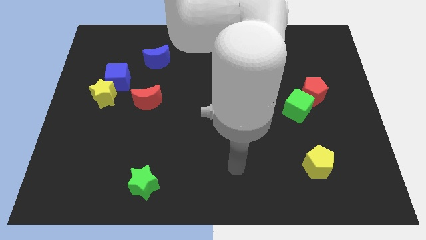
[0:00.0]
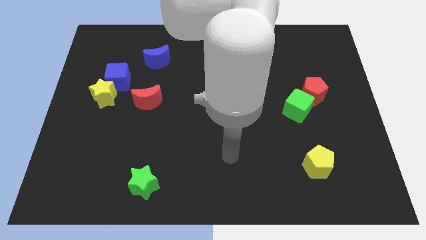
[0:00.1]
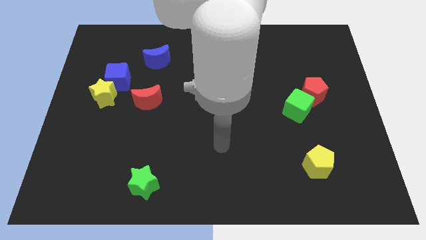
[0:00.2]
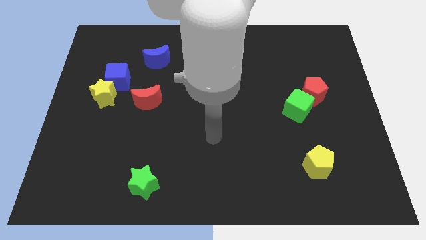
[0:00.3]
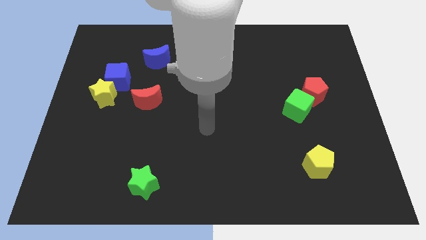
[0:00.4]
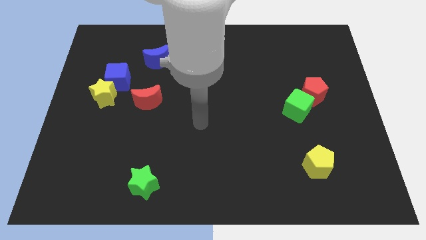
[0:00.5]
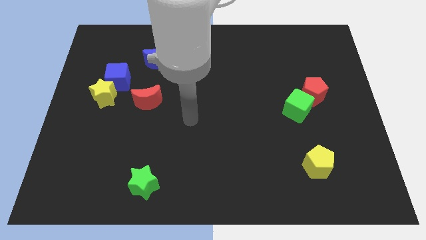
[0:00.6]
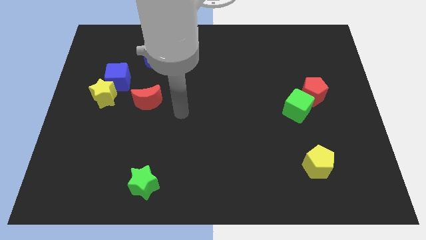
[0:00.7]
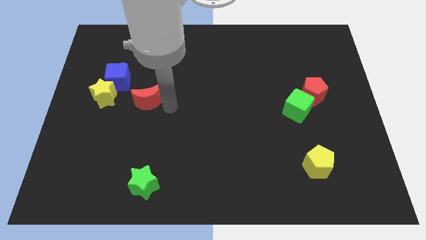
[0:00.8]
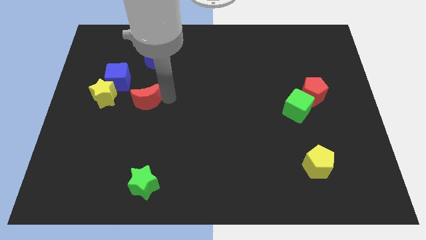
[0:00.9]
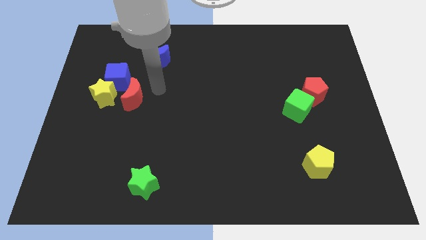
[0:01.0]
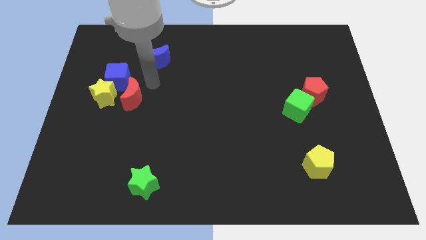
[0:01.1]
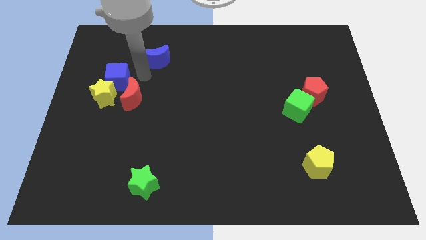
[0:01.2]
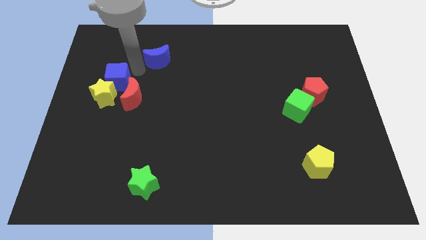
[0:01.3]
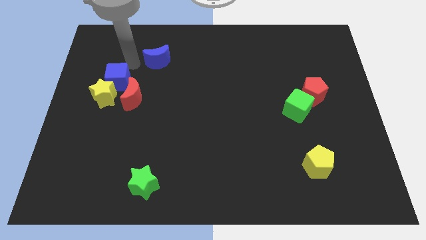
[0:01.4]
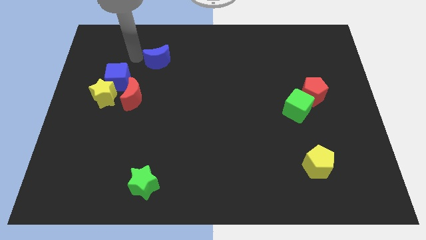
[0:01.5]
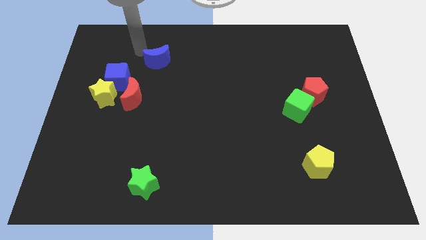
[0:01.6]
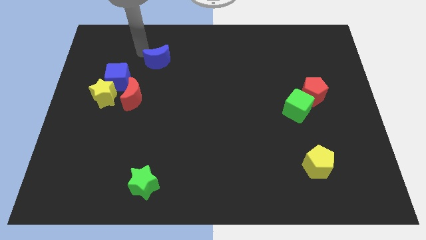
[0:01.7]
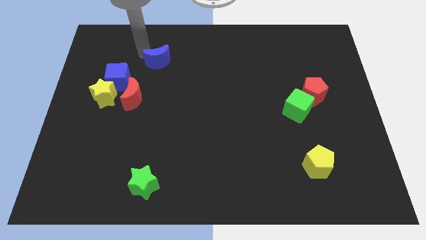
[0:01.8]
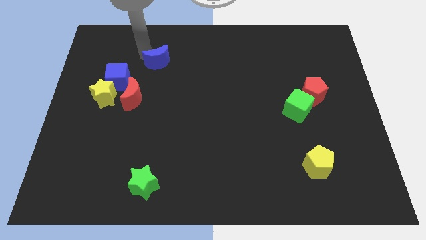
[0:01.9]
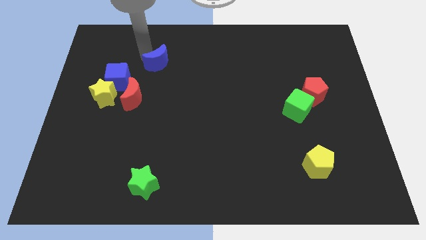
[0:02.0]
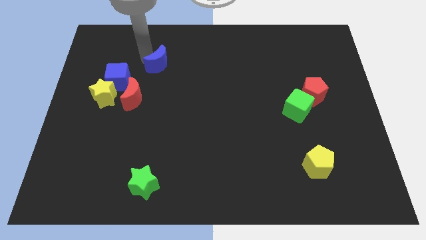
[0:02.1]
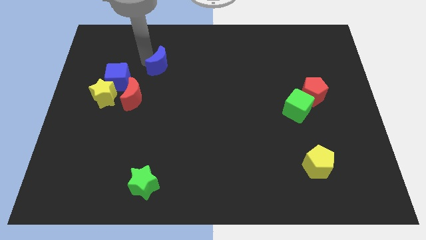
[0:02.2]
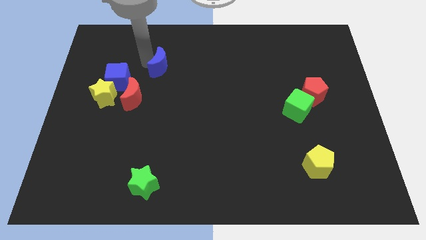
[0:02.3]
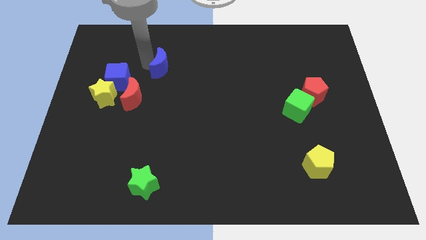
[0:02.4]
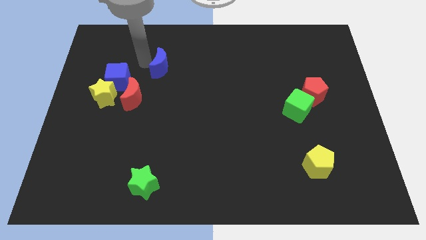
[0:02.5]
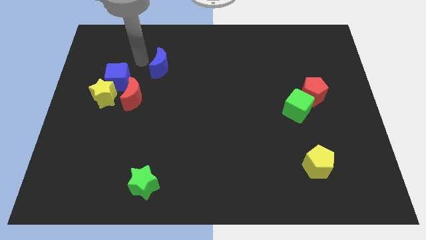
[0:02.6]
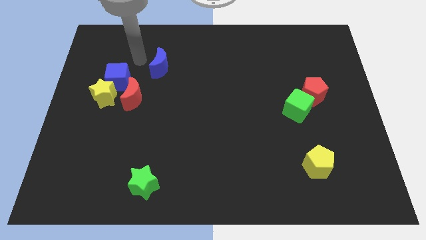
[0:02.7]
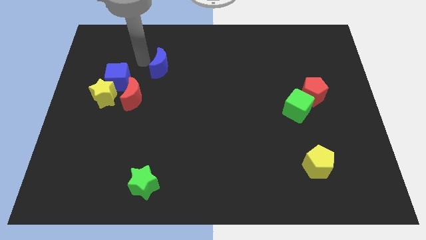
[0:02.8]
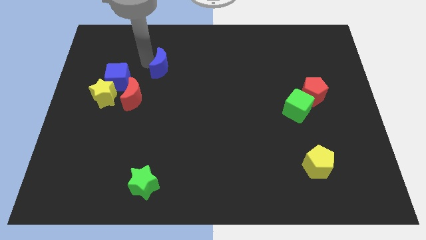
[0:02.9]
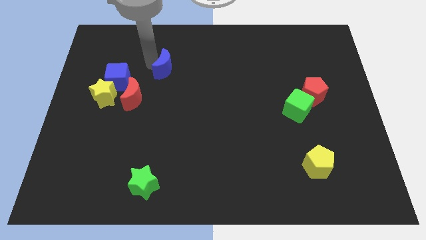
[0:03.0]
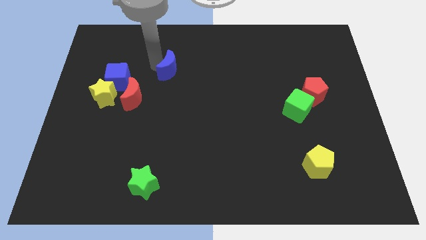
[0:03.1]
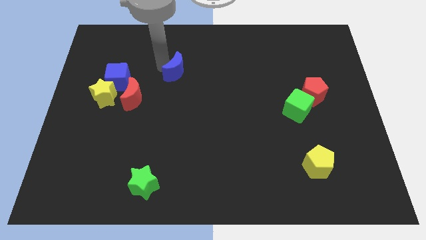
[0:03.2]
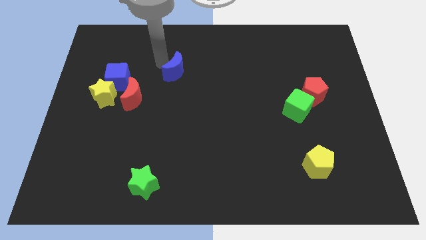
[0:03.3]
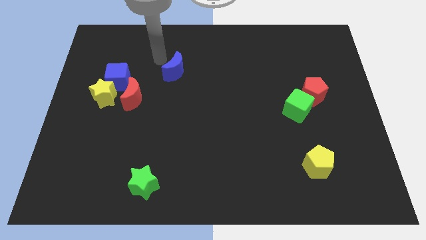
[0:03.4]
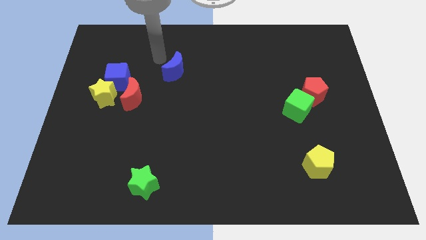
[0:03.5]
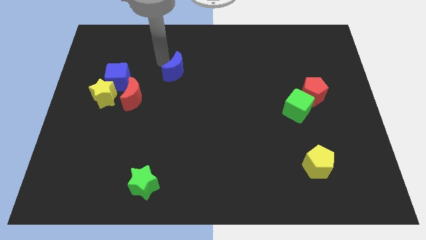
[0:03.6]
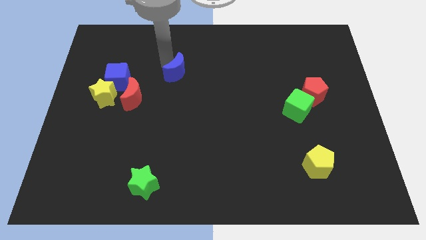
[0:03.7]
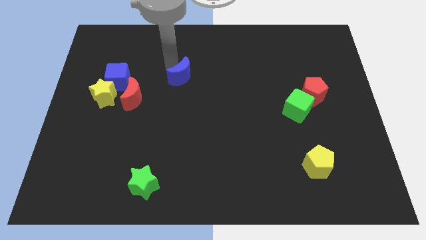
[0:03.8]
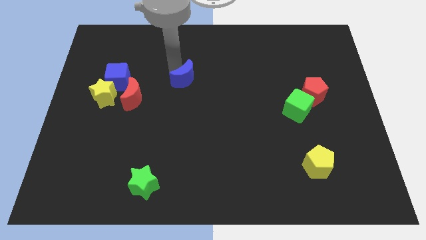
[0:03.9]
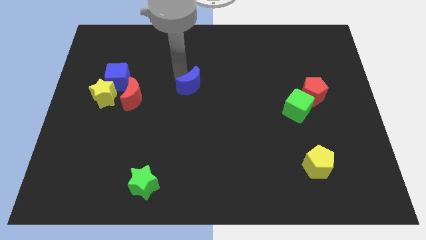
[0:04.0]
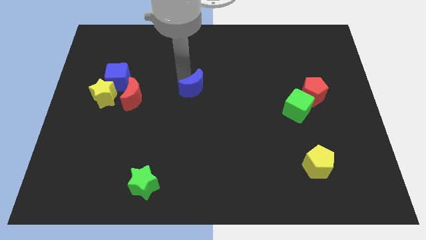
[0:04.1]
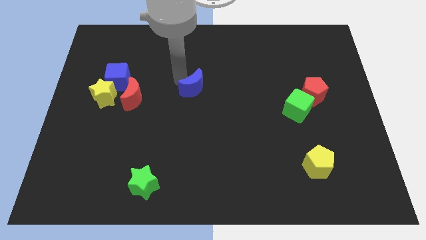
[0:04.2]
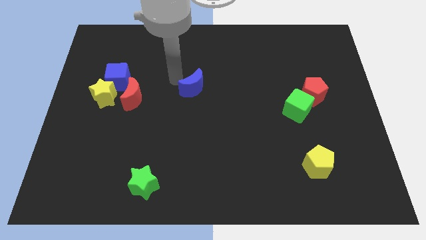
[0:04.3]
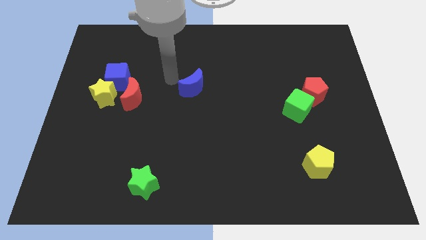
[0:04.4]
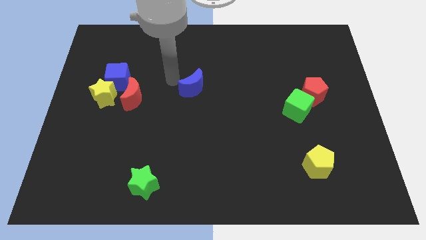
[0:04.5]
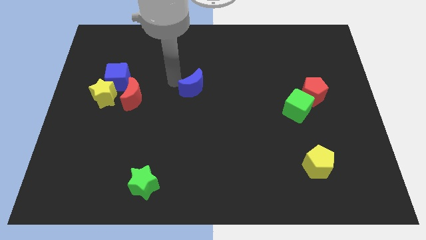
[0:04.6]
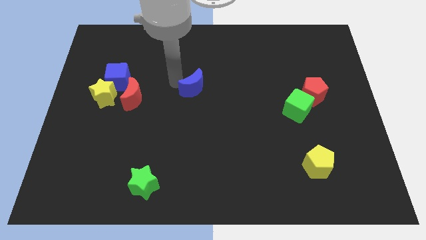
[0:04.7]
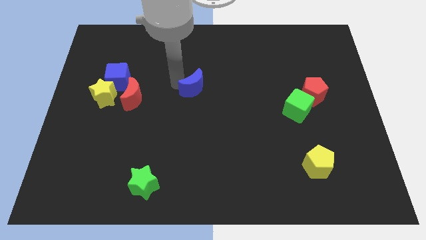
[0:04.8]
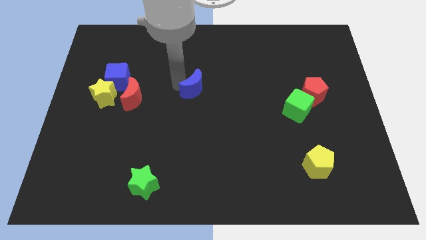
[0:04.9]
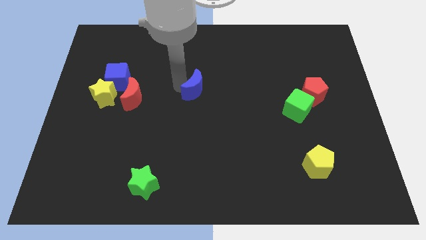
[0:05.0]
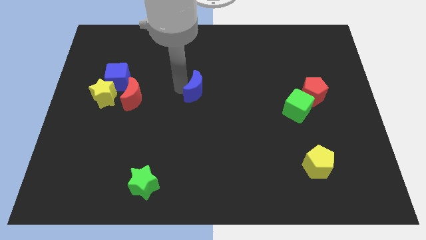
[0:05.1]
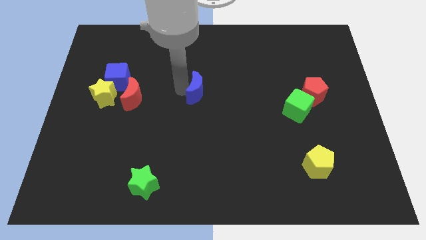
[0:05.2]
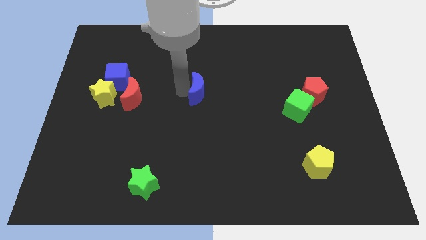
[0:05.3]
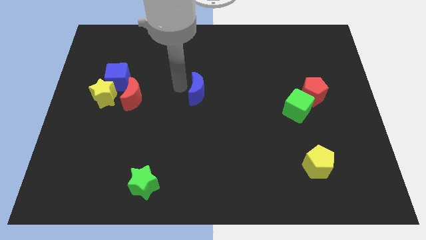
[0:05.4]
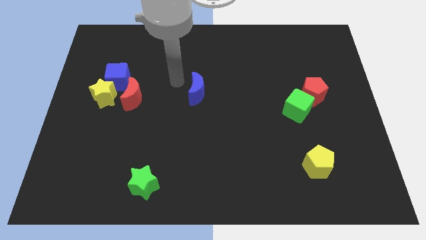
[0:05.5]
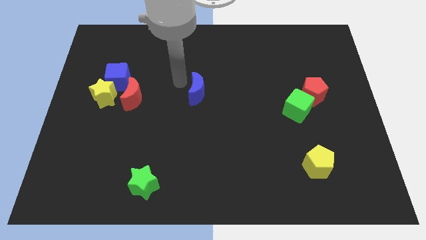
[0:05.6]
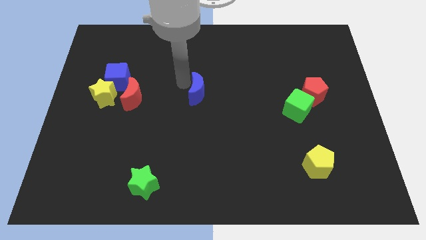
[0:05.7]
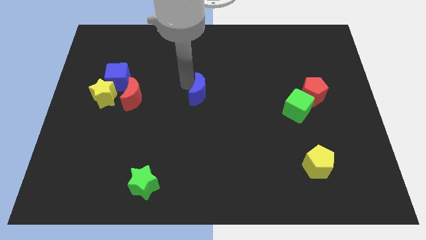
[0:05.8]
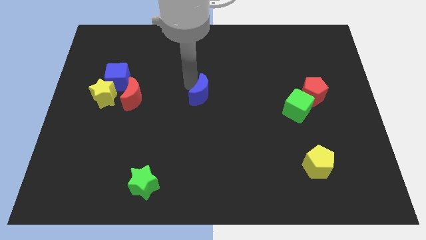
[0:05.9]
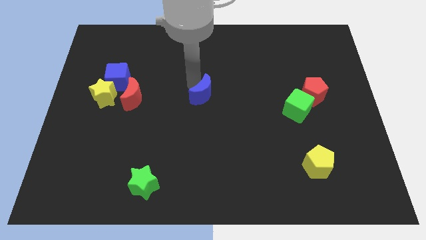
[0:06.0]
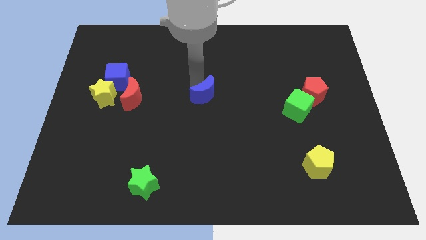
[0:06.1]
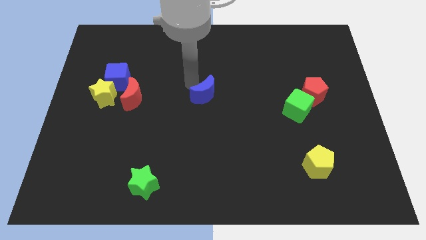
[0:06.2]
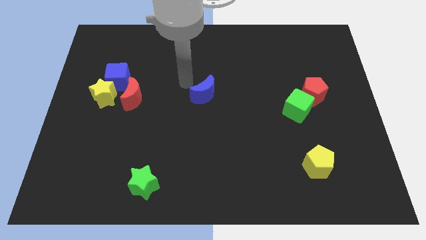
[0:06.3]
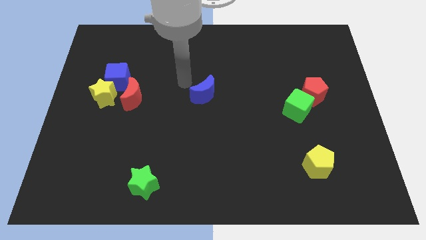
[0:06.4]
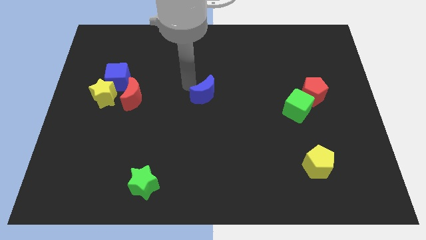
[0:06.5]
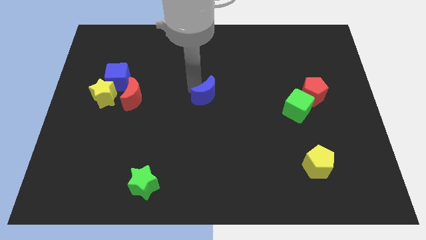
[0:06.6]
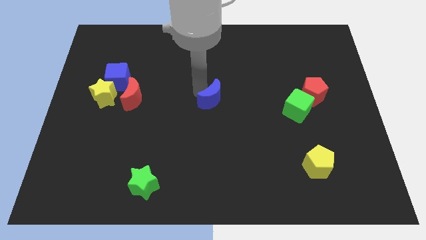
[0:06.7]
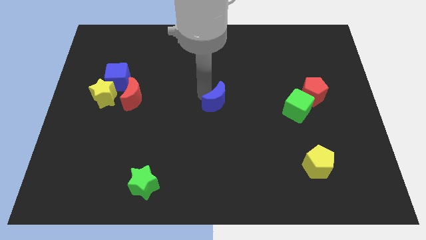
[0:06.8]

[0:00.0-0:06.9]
push the blue moon downwards and right

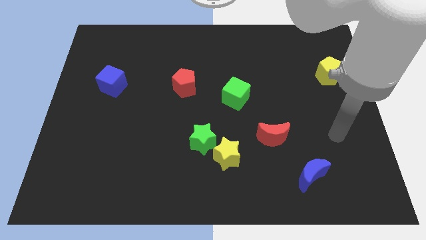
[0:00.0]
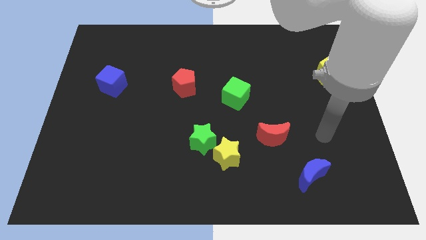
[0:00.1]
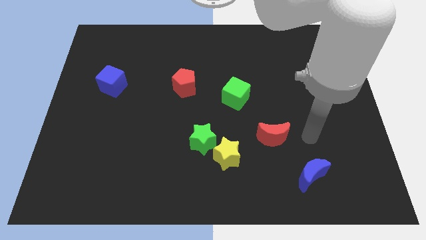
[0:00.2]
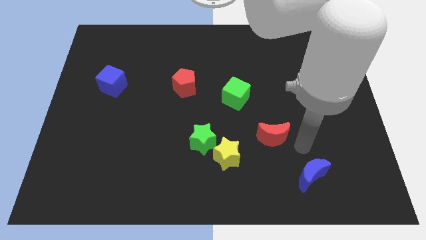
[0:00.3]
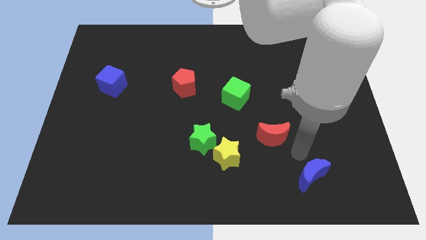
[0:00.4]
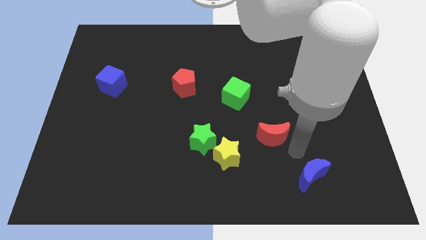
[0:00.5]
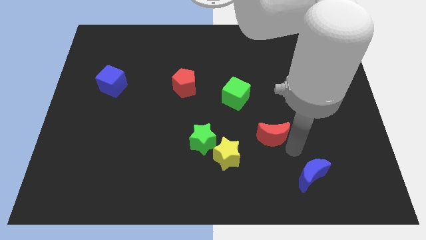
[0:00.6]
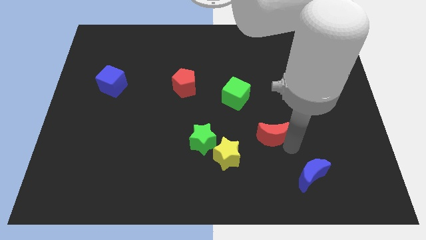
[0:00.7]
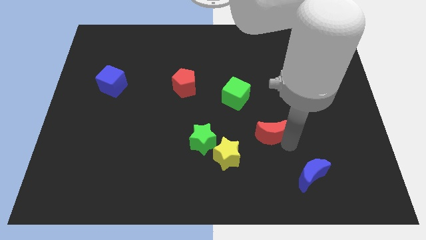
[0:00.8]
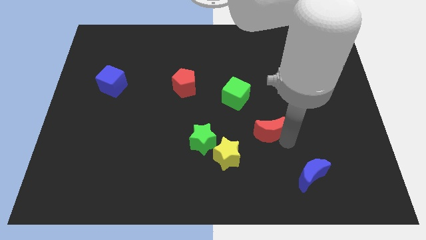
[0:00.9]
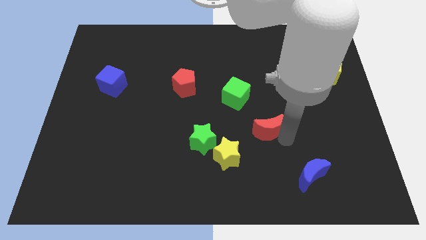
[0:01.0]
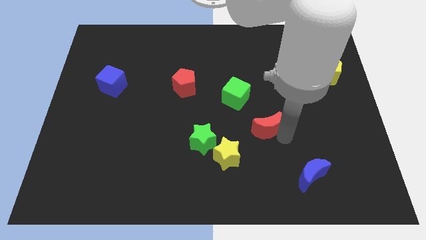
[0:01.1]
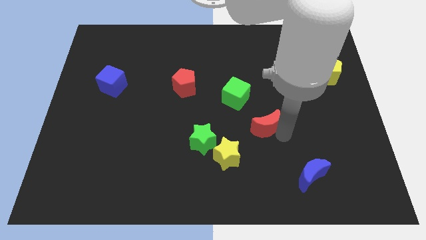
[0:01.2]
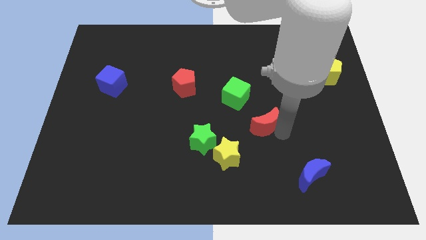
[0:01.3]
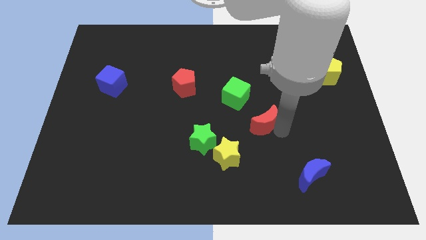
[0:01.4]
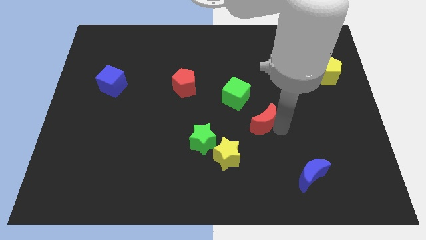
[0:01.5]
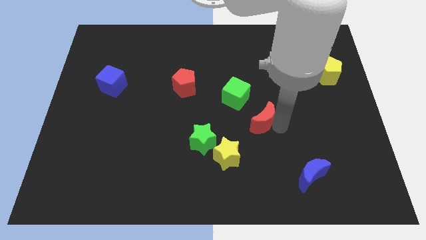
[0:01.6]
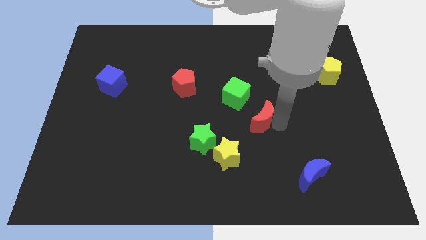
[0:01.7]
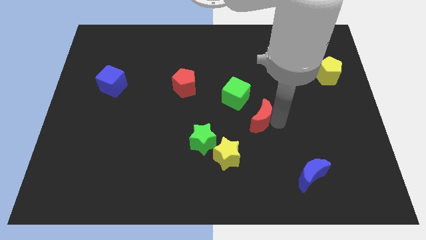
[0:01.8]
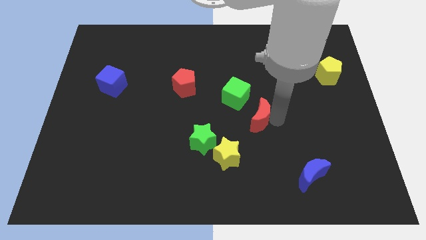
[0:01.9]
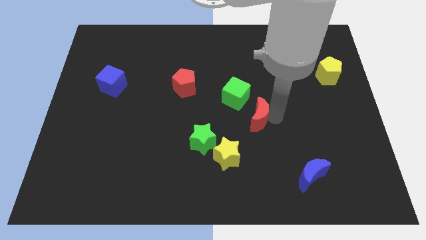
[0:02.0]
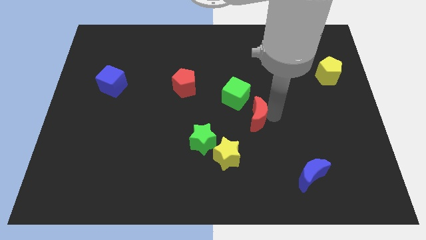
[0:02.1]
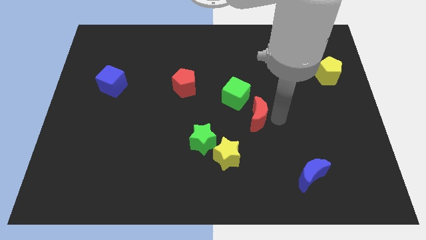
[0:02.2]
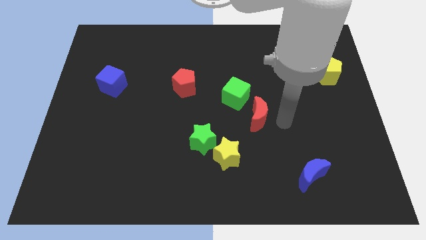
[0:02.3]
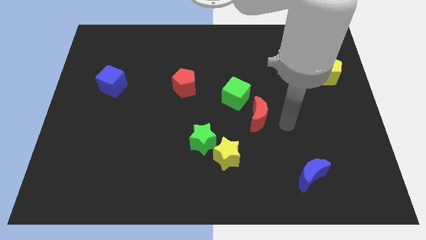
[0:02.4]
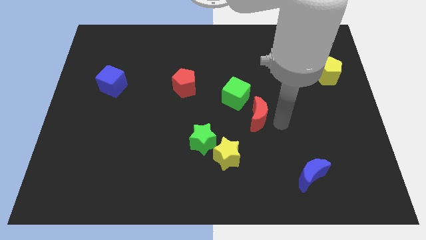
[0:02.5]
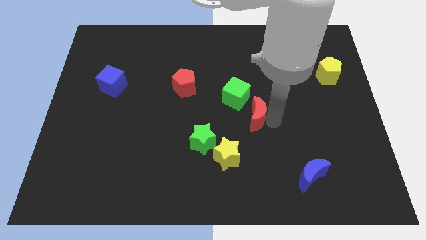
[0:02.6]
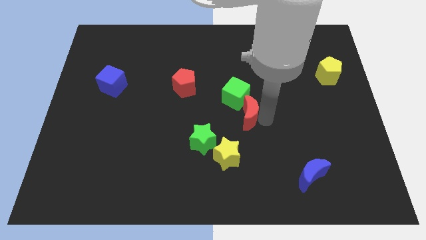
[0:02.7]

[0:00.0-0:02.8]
push the red moon upwards and then to the left a little
